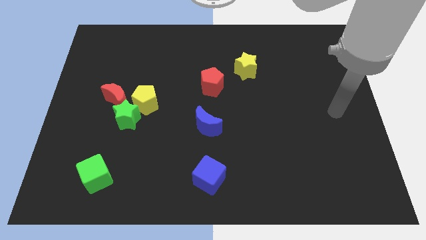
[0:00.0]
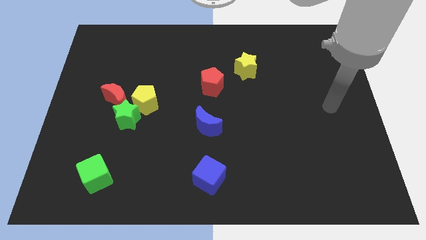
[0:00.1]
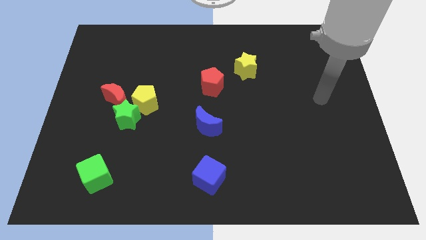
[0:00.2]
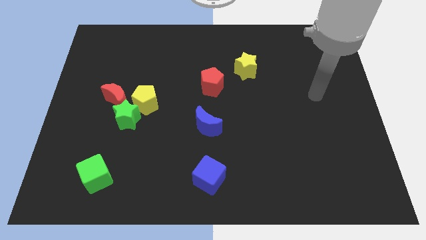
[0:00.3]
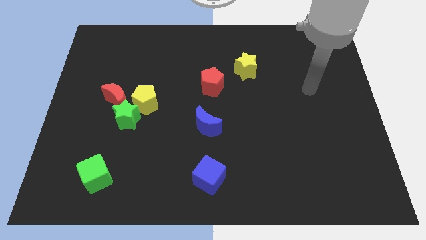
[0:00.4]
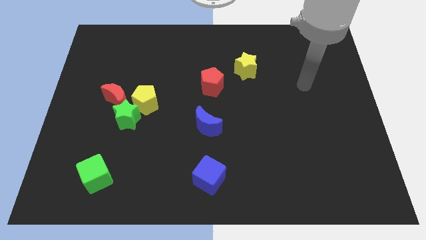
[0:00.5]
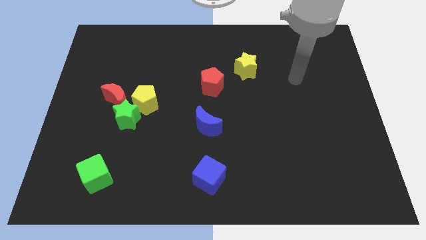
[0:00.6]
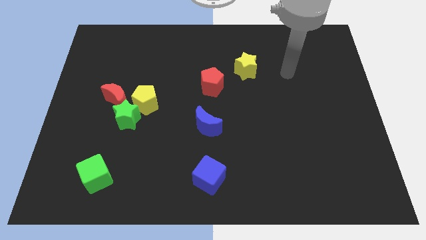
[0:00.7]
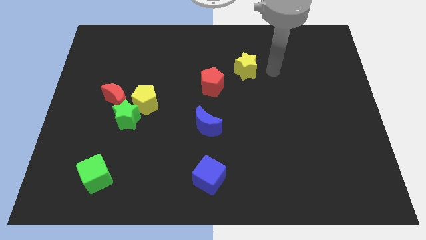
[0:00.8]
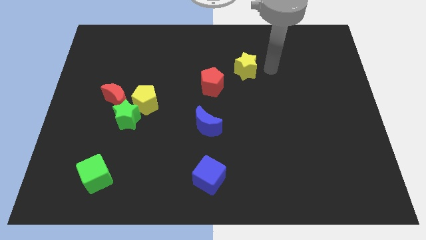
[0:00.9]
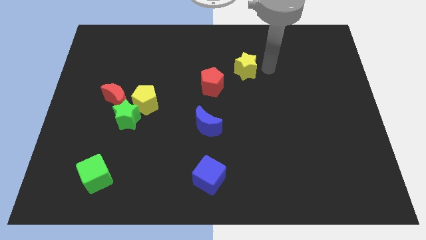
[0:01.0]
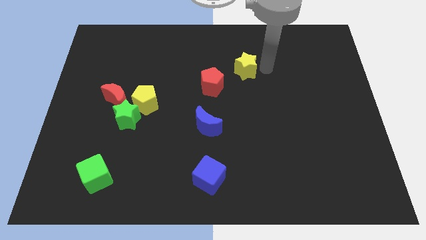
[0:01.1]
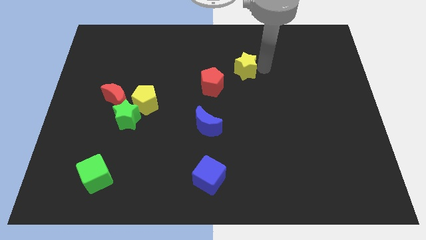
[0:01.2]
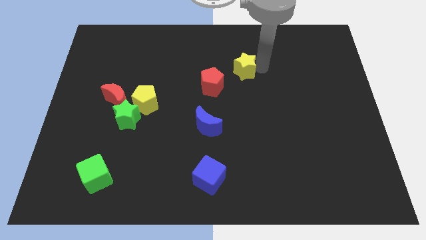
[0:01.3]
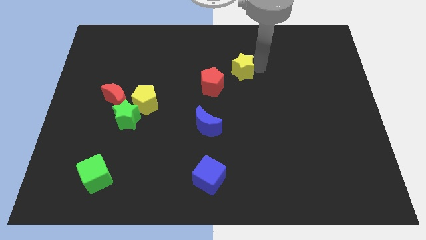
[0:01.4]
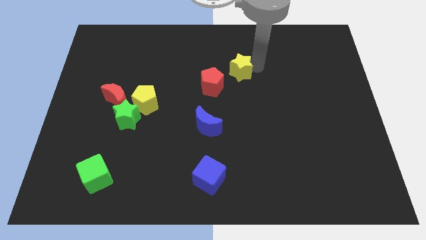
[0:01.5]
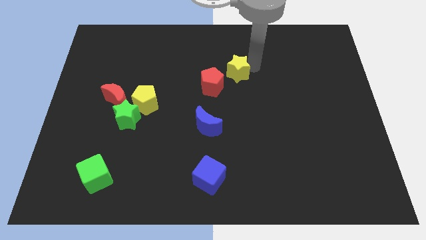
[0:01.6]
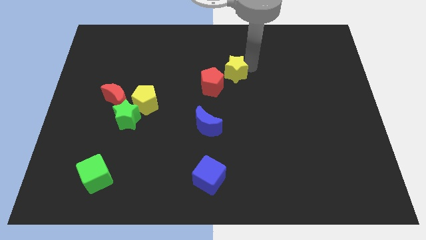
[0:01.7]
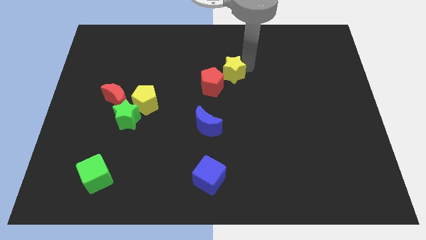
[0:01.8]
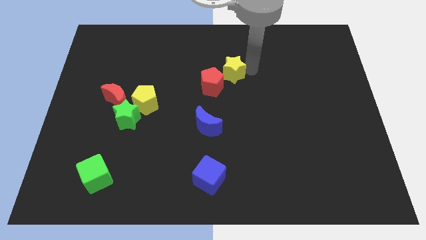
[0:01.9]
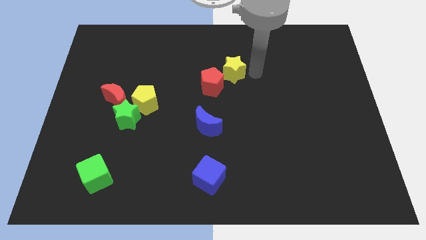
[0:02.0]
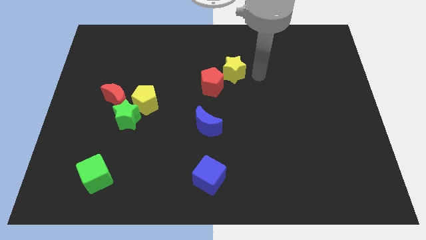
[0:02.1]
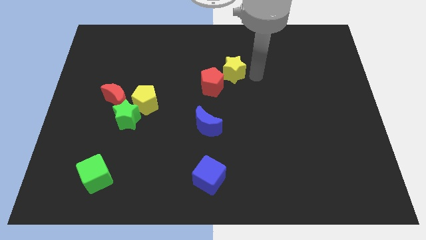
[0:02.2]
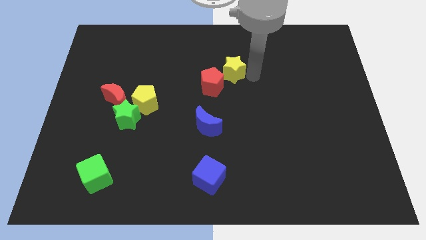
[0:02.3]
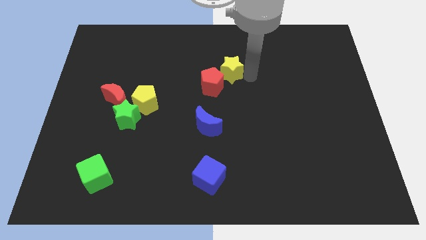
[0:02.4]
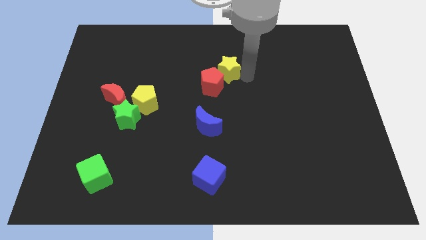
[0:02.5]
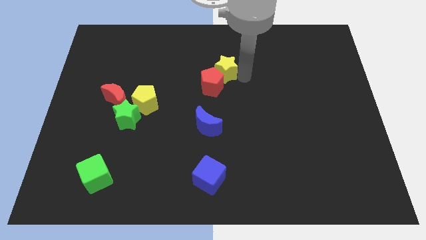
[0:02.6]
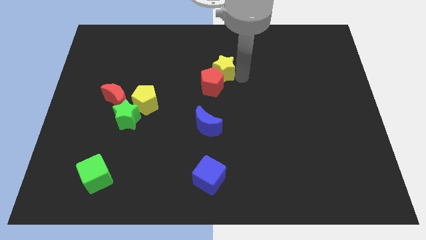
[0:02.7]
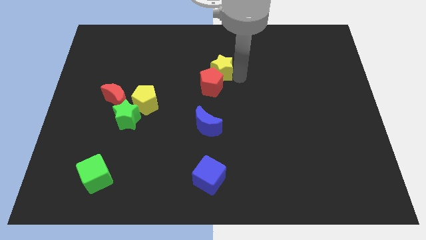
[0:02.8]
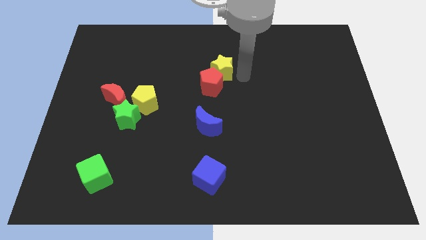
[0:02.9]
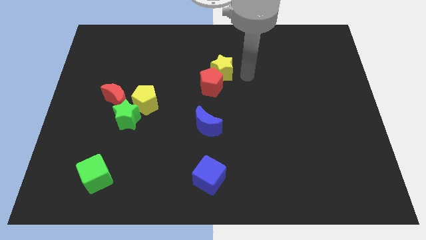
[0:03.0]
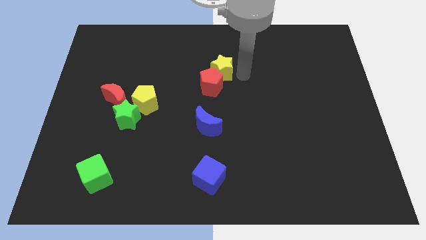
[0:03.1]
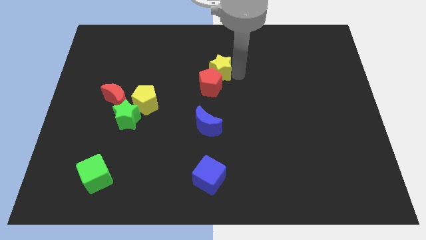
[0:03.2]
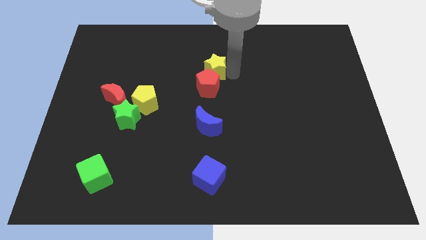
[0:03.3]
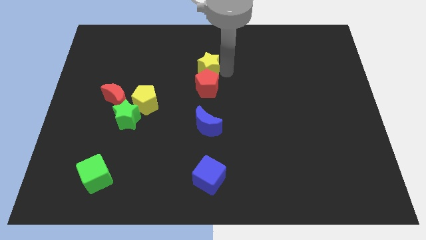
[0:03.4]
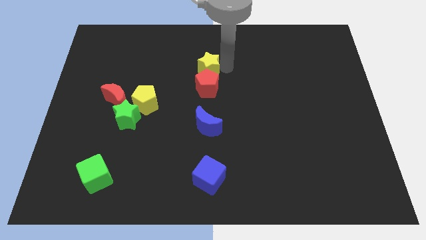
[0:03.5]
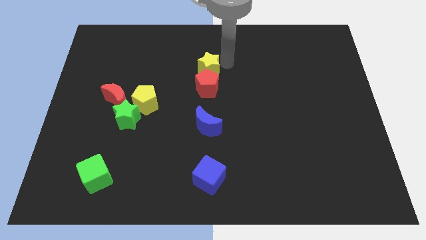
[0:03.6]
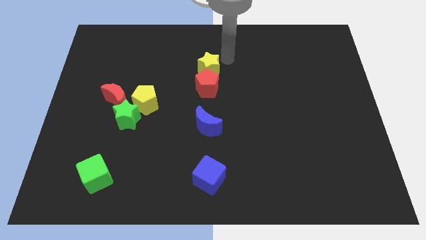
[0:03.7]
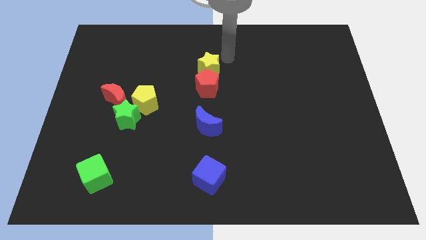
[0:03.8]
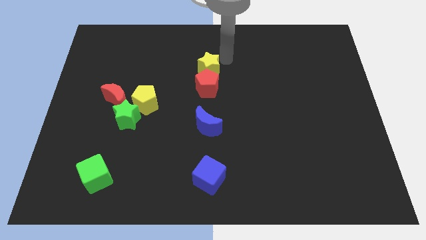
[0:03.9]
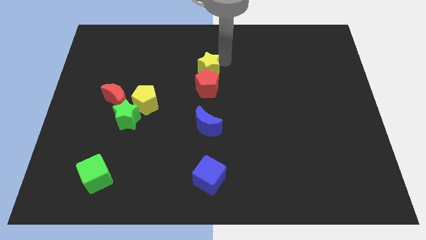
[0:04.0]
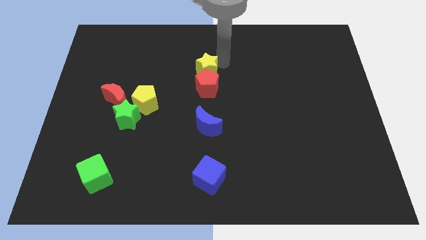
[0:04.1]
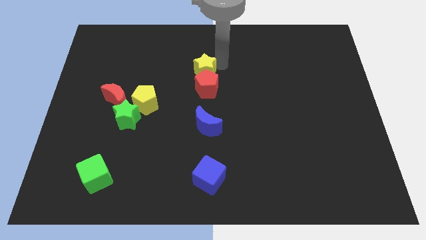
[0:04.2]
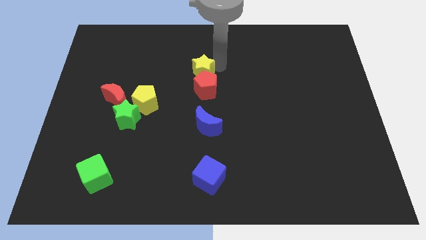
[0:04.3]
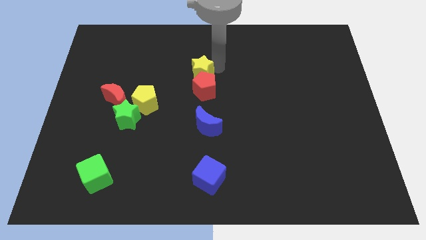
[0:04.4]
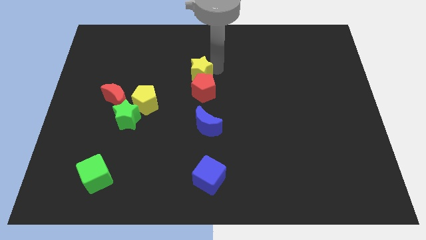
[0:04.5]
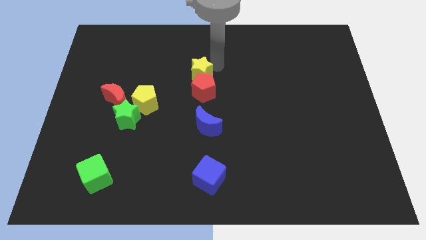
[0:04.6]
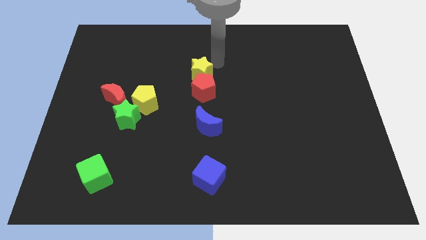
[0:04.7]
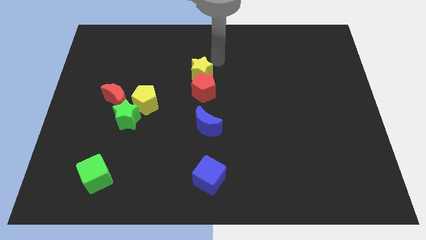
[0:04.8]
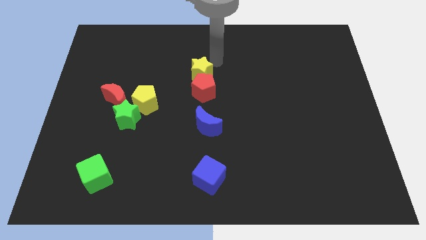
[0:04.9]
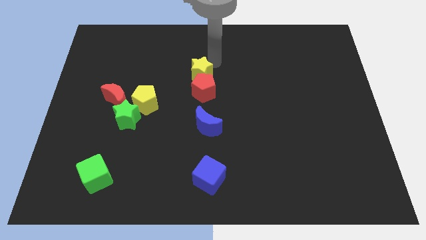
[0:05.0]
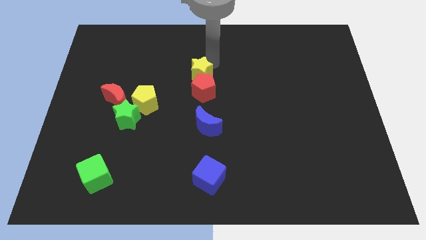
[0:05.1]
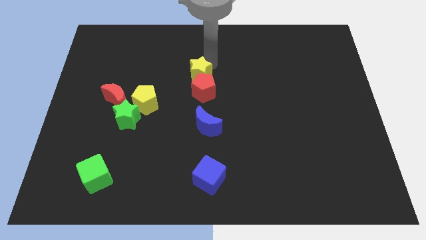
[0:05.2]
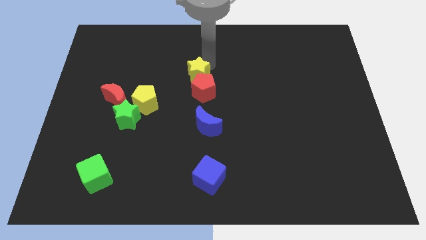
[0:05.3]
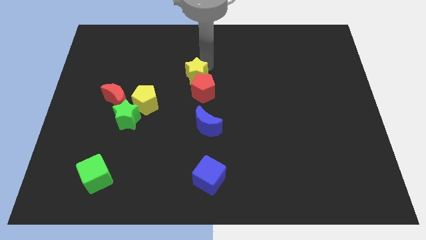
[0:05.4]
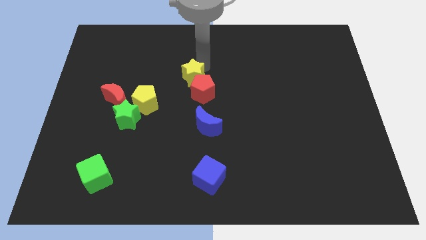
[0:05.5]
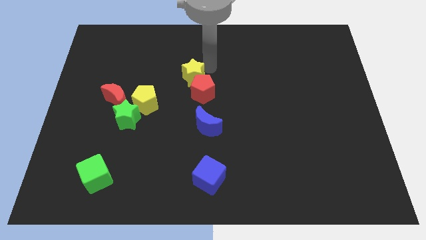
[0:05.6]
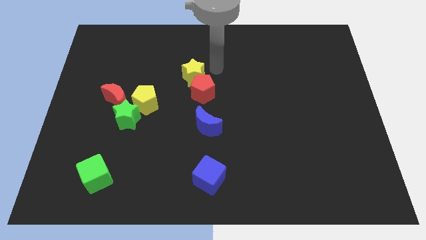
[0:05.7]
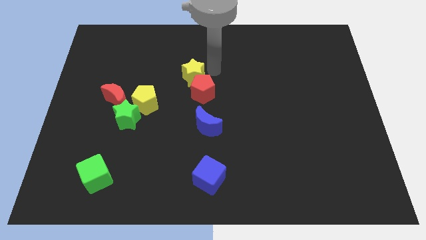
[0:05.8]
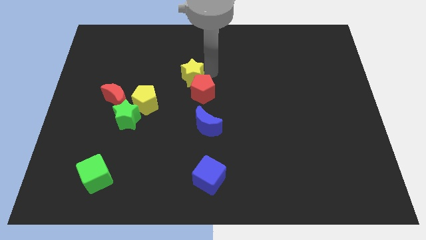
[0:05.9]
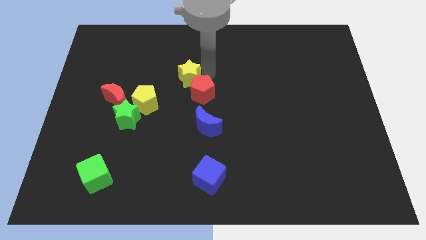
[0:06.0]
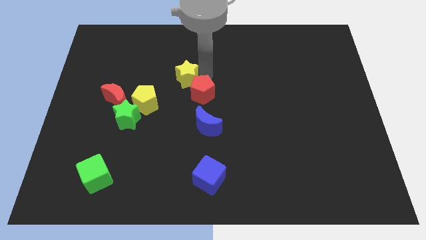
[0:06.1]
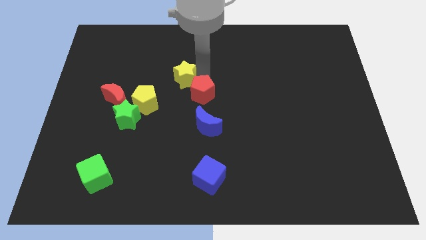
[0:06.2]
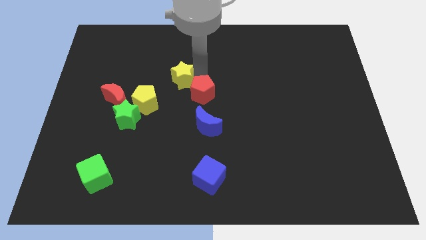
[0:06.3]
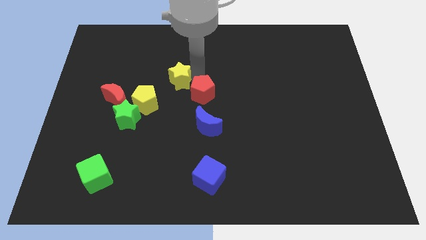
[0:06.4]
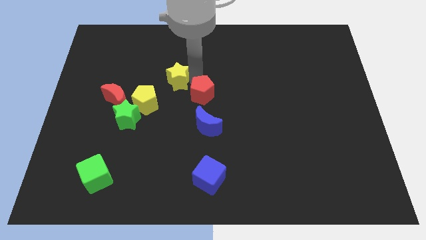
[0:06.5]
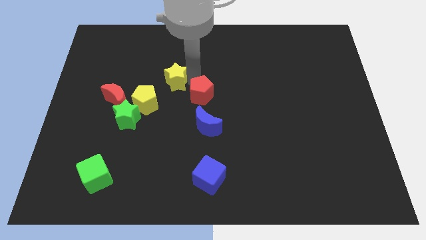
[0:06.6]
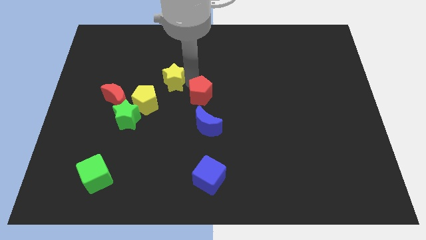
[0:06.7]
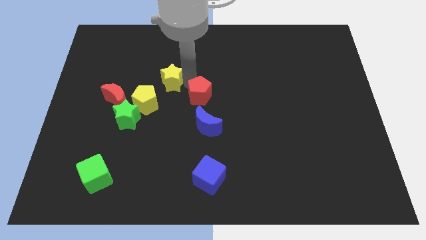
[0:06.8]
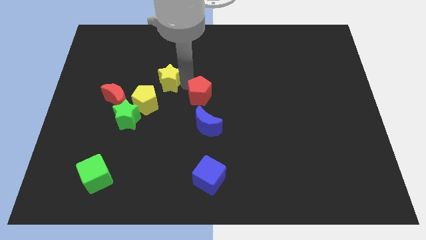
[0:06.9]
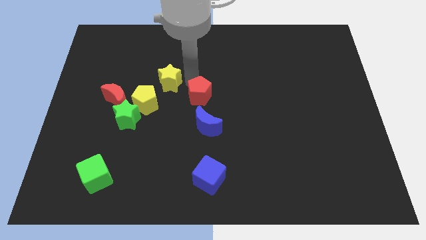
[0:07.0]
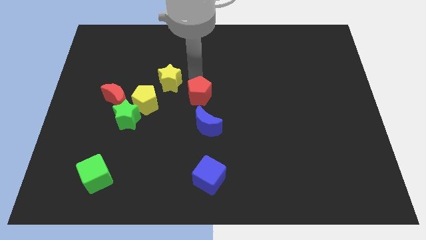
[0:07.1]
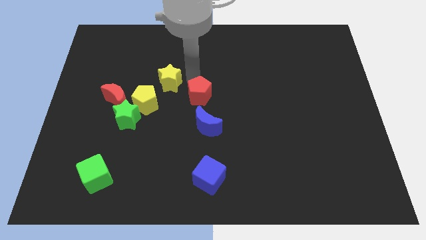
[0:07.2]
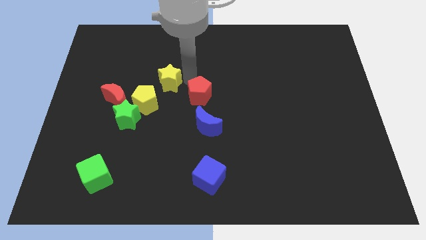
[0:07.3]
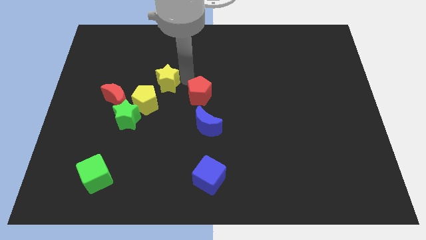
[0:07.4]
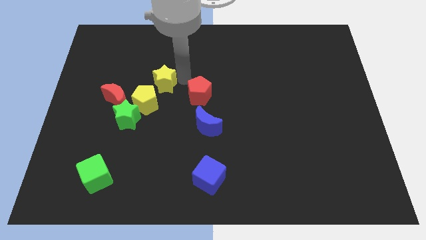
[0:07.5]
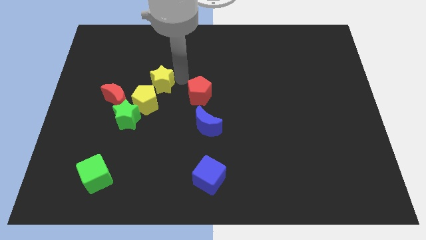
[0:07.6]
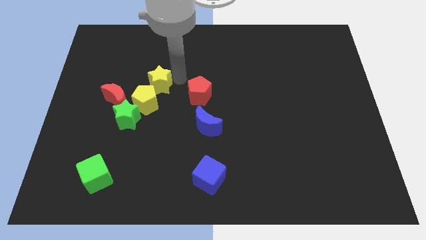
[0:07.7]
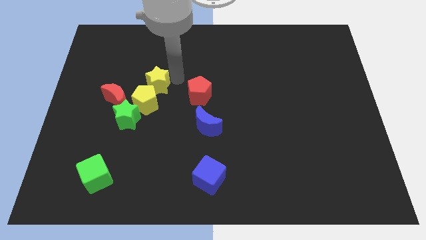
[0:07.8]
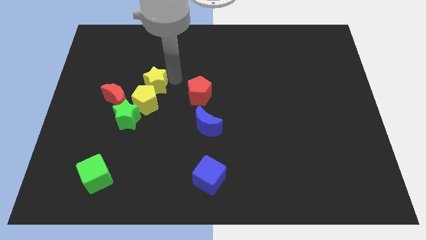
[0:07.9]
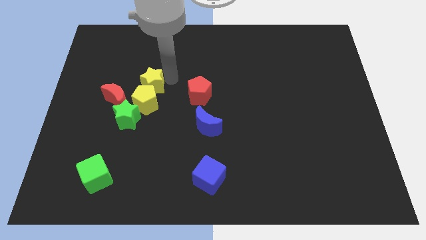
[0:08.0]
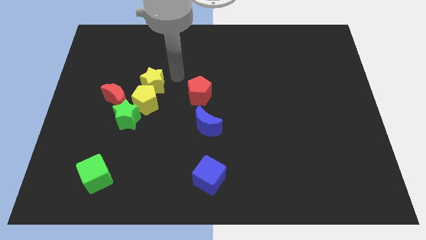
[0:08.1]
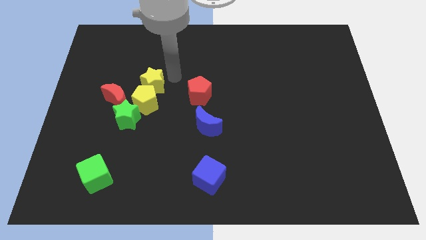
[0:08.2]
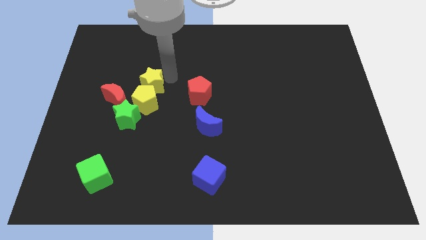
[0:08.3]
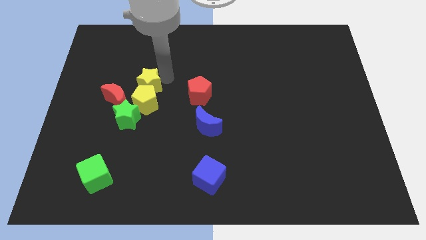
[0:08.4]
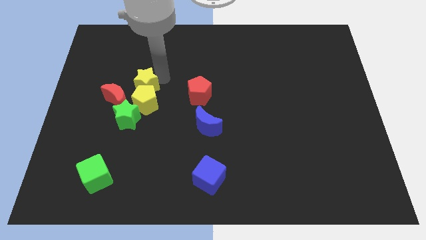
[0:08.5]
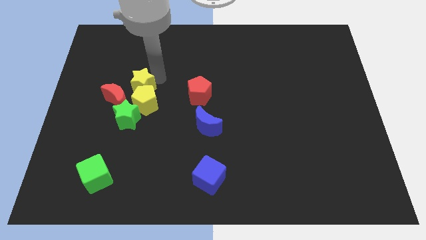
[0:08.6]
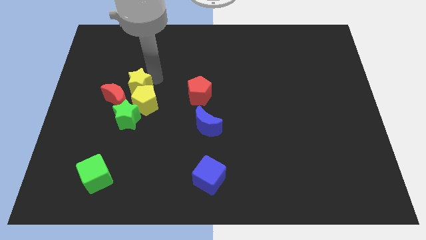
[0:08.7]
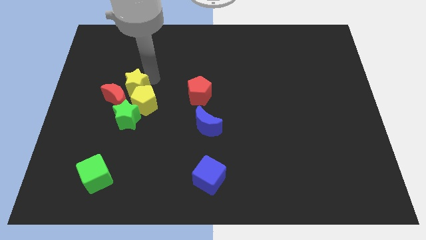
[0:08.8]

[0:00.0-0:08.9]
push the yellow star to the red moon
